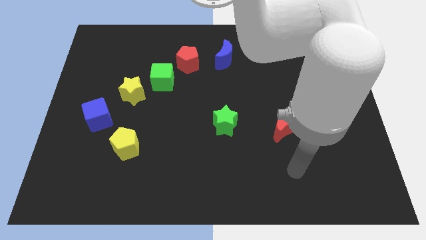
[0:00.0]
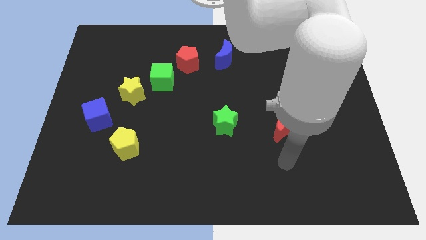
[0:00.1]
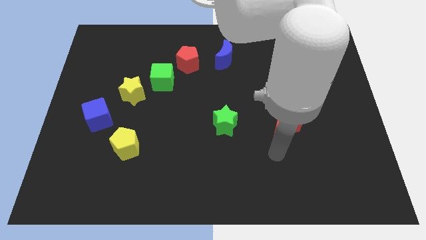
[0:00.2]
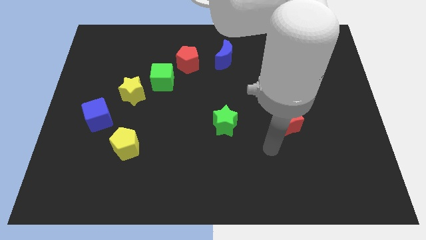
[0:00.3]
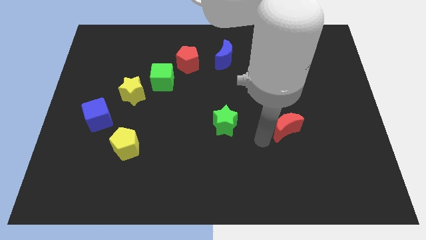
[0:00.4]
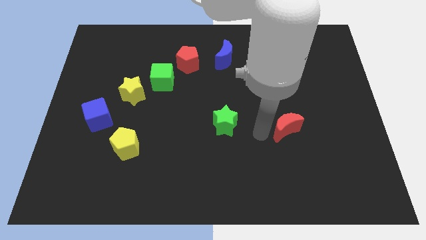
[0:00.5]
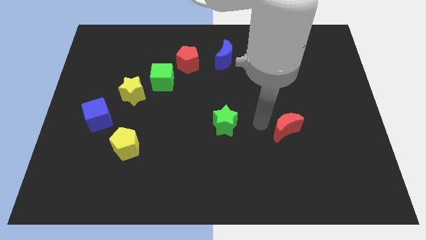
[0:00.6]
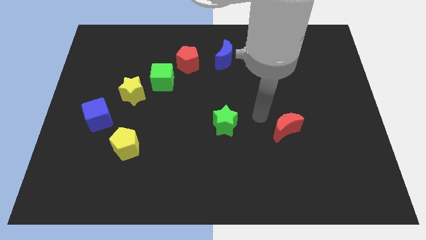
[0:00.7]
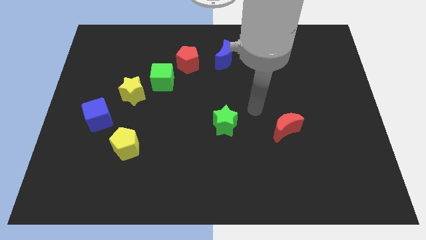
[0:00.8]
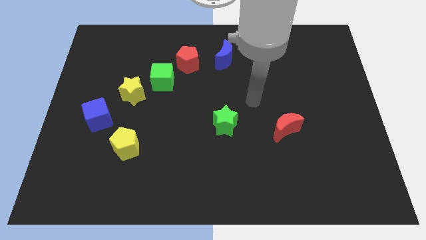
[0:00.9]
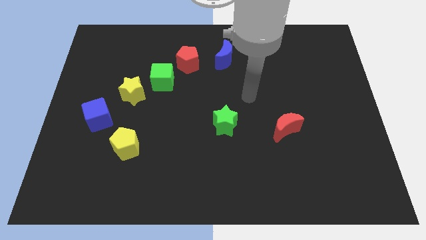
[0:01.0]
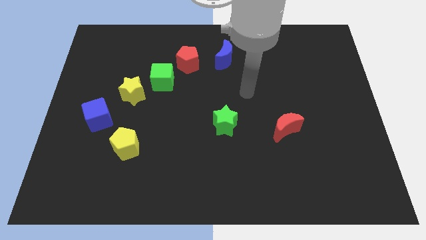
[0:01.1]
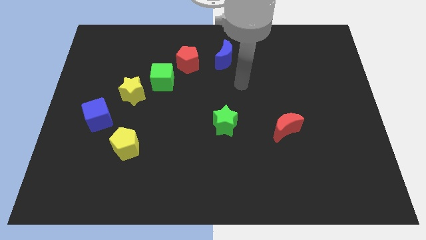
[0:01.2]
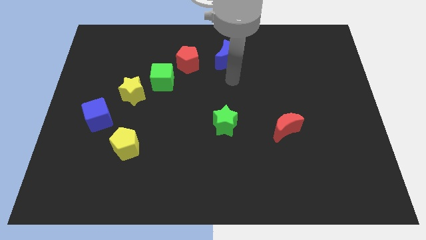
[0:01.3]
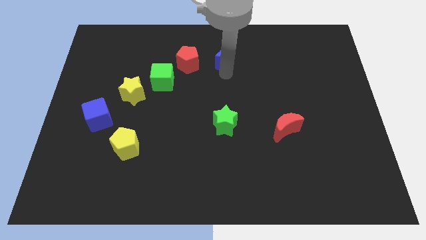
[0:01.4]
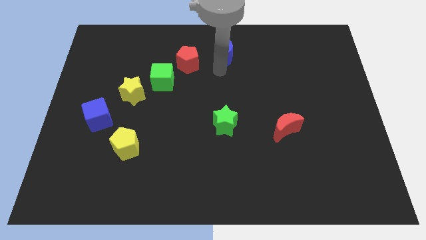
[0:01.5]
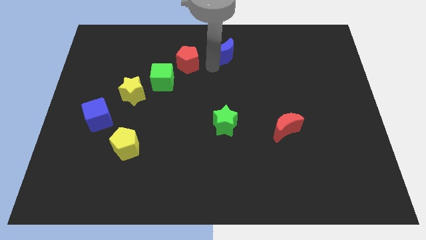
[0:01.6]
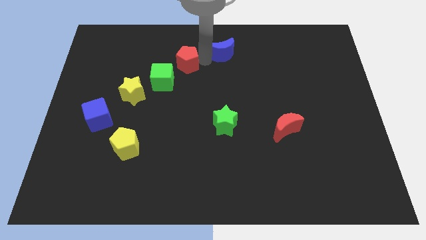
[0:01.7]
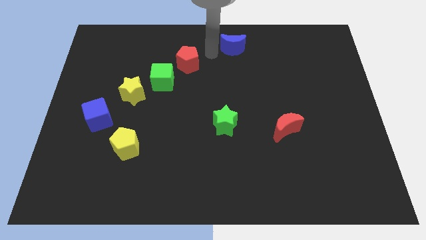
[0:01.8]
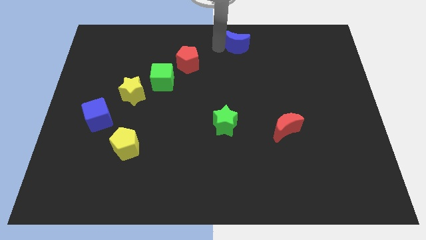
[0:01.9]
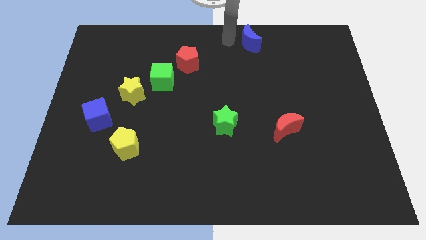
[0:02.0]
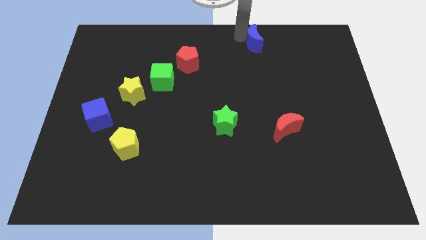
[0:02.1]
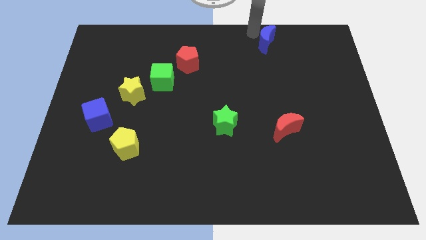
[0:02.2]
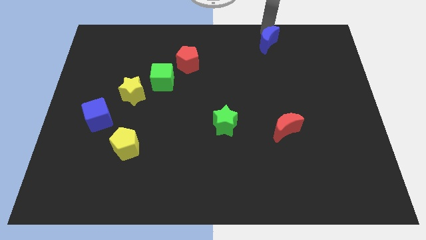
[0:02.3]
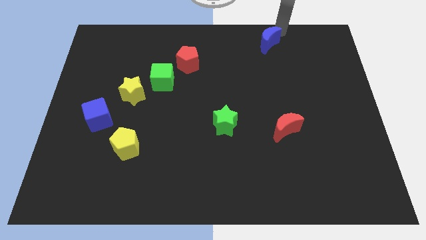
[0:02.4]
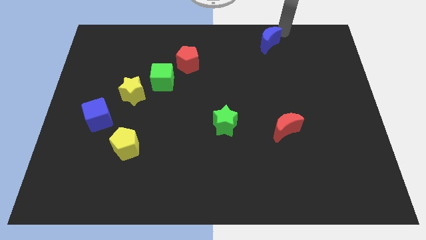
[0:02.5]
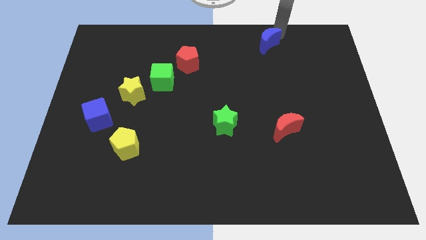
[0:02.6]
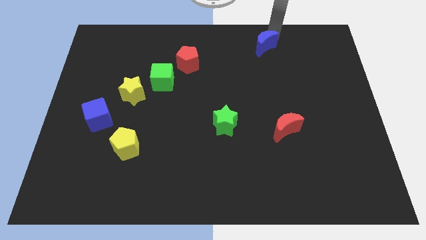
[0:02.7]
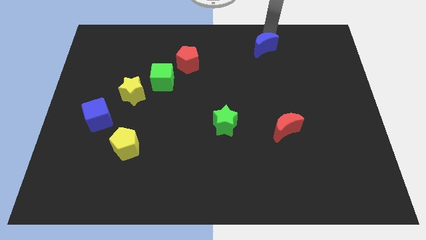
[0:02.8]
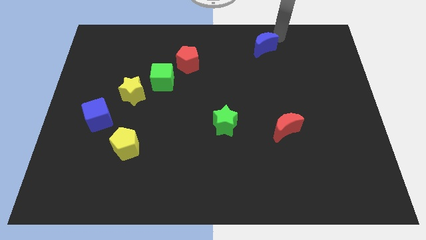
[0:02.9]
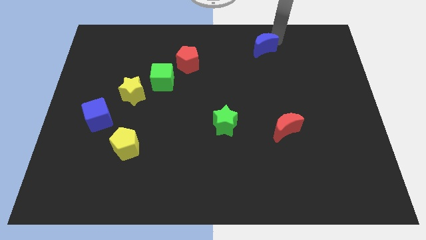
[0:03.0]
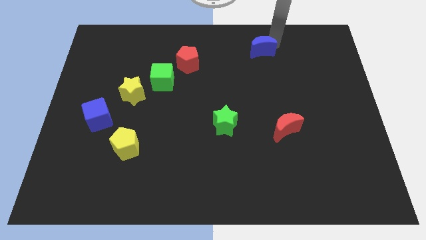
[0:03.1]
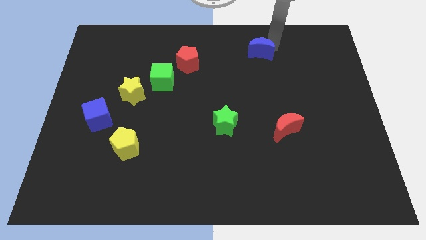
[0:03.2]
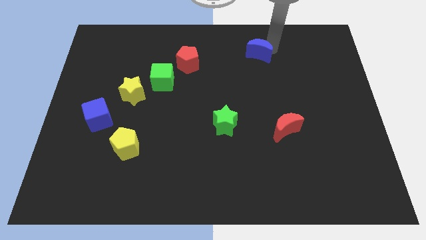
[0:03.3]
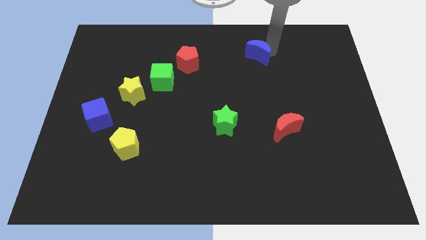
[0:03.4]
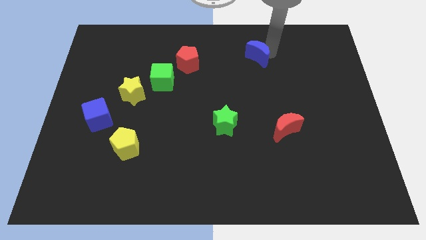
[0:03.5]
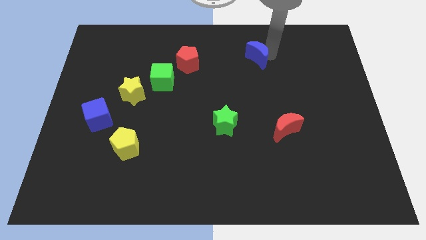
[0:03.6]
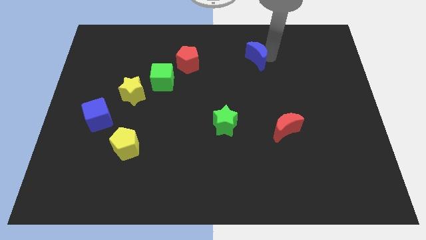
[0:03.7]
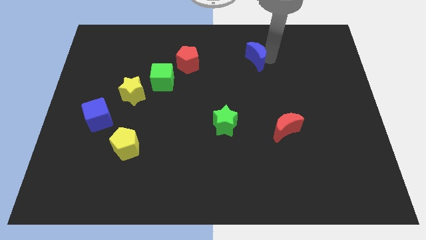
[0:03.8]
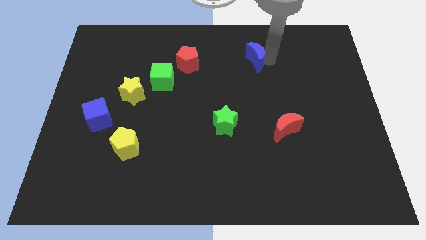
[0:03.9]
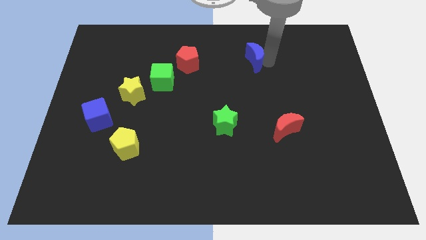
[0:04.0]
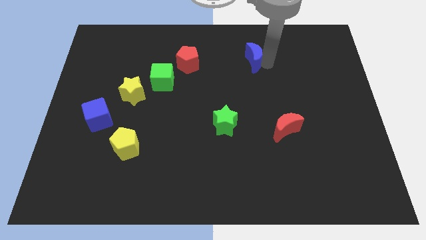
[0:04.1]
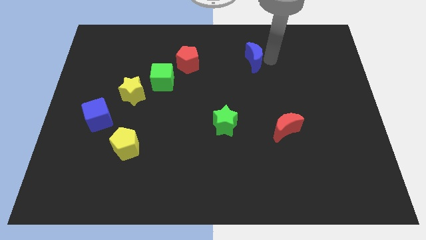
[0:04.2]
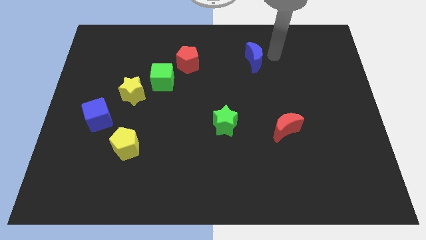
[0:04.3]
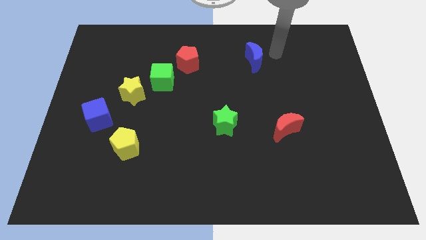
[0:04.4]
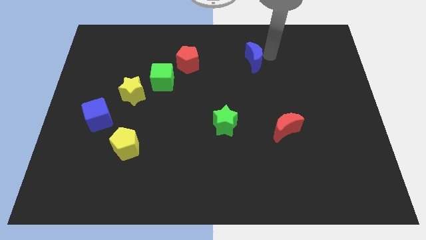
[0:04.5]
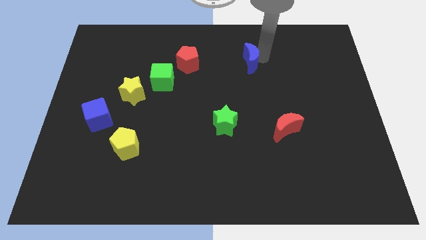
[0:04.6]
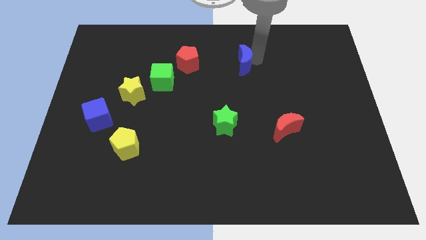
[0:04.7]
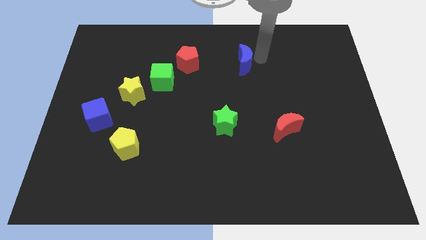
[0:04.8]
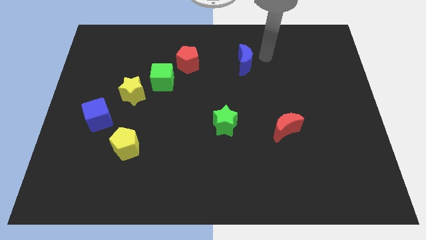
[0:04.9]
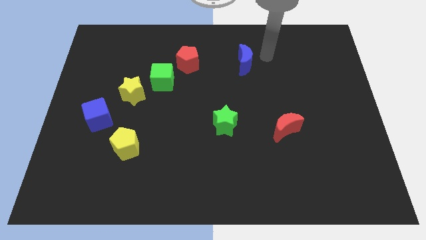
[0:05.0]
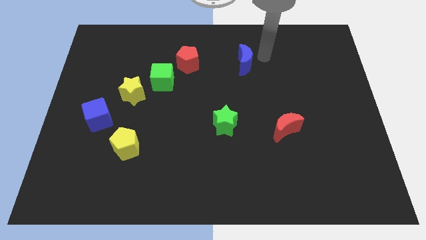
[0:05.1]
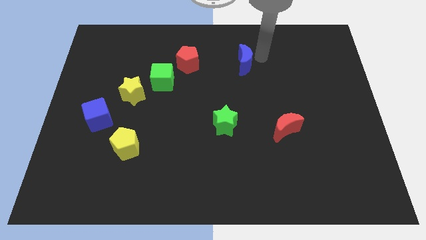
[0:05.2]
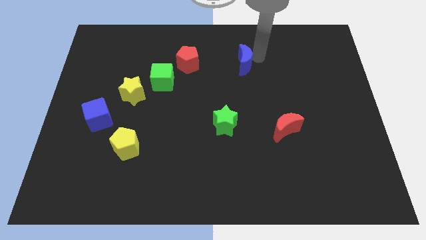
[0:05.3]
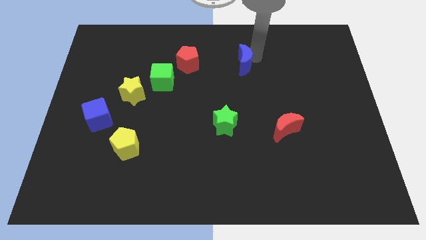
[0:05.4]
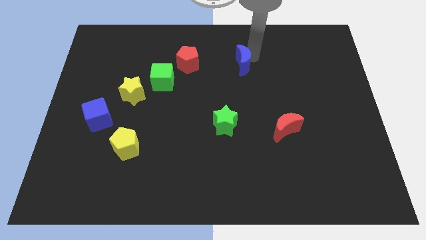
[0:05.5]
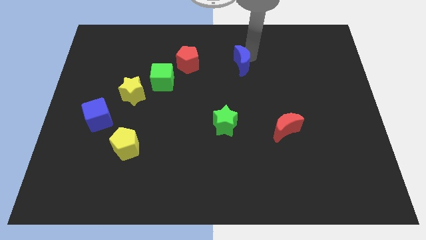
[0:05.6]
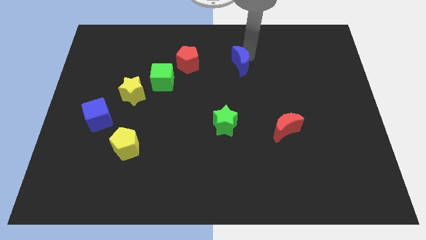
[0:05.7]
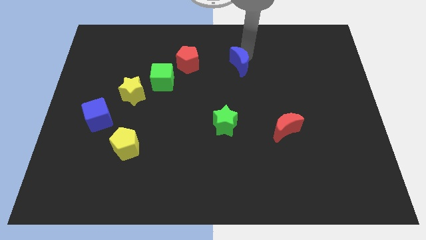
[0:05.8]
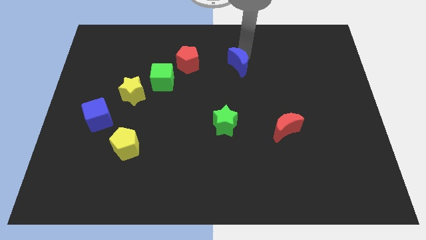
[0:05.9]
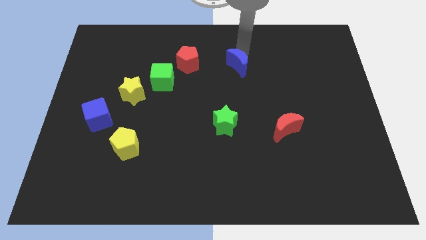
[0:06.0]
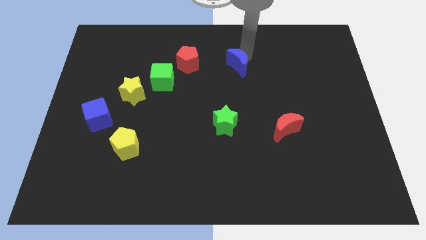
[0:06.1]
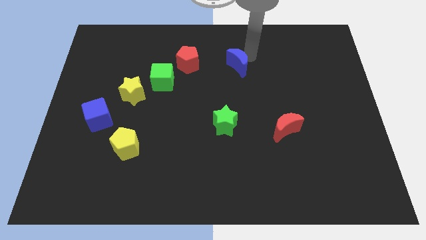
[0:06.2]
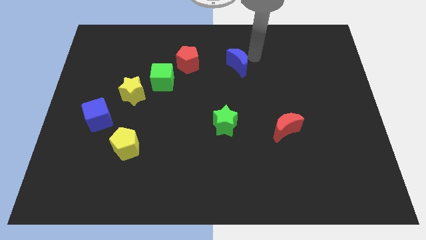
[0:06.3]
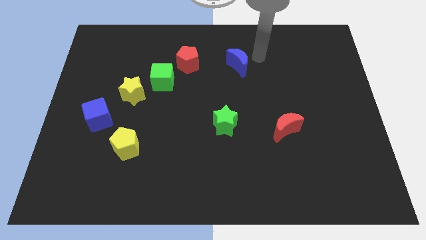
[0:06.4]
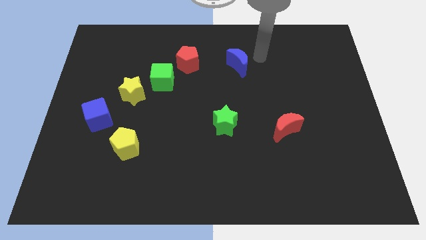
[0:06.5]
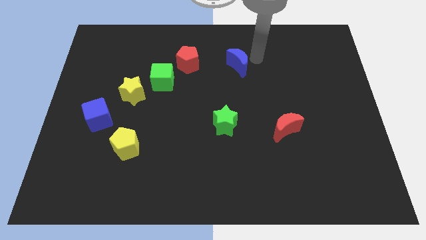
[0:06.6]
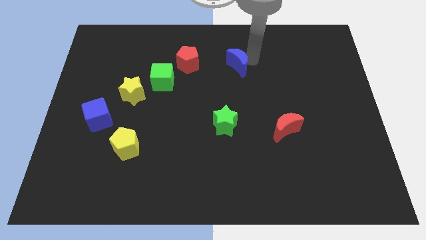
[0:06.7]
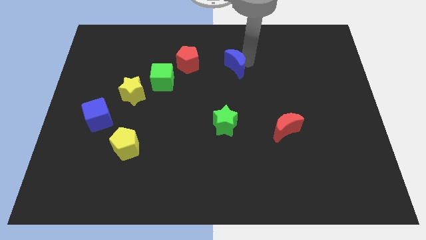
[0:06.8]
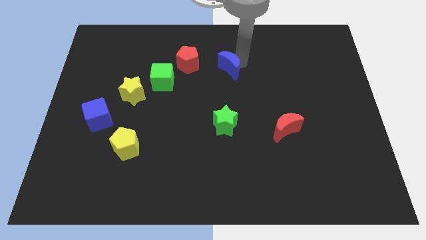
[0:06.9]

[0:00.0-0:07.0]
move the blue moon to the middle of the board

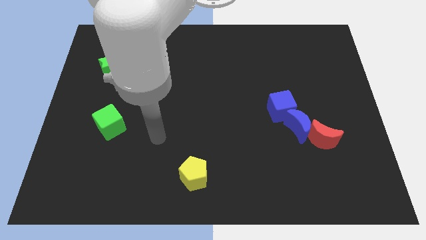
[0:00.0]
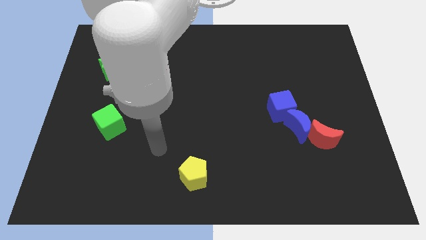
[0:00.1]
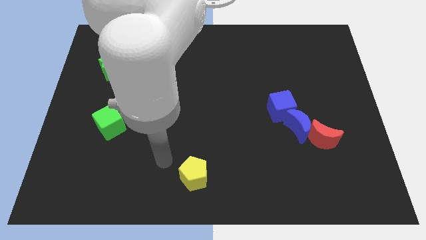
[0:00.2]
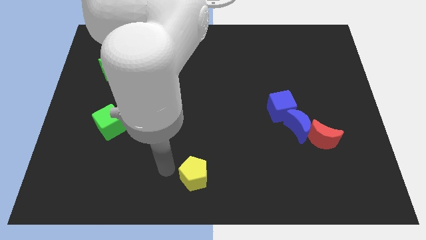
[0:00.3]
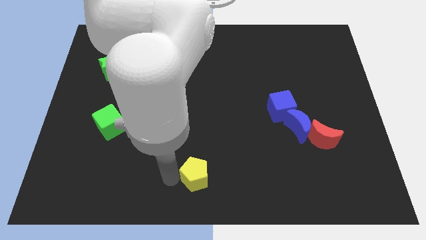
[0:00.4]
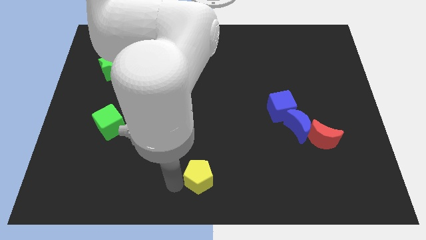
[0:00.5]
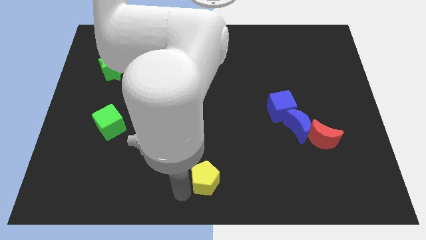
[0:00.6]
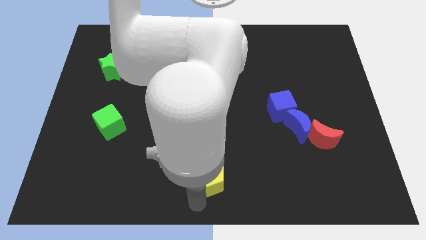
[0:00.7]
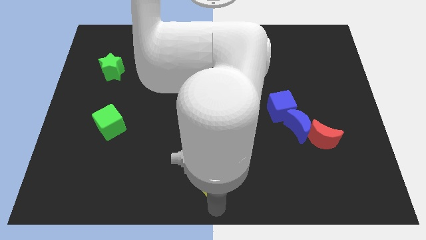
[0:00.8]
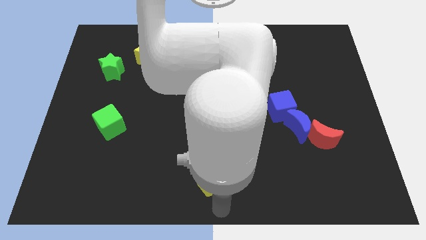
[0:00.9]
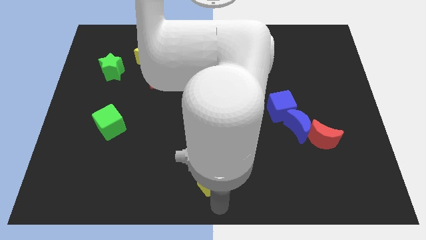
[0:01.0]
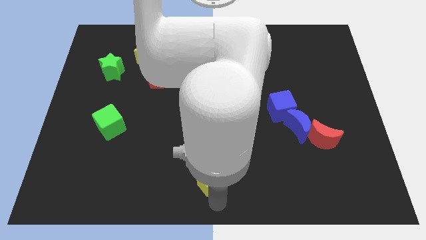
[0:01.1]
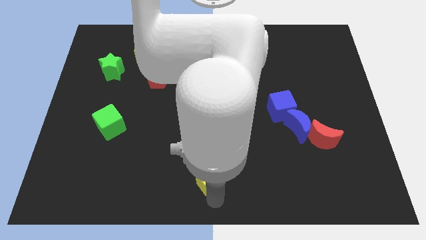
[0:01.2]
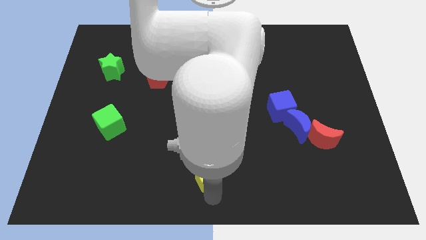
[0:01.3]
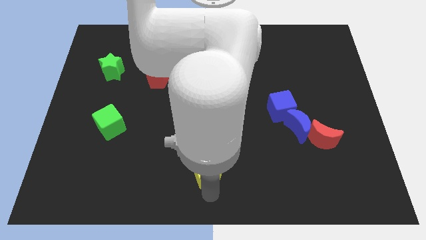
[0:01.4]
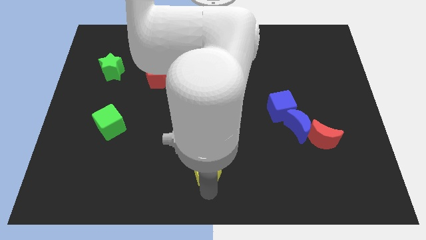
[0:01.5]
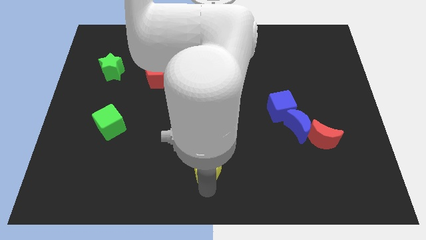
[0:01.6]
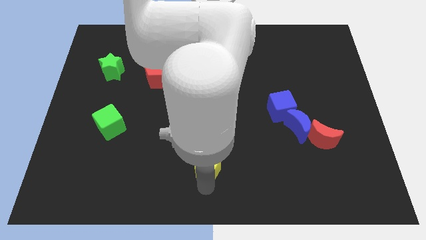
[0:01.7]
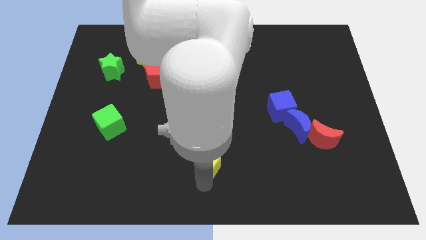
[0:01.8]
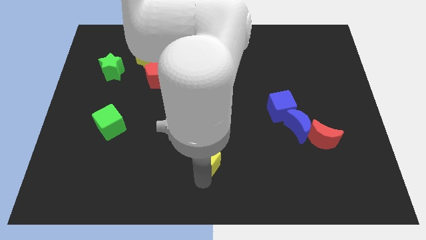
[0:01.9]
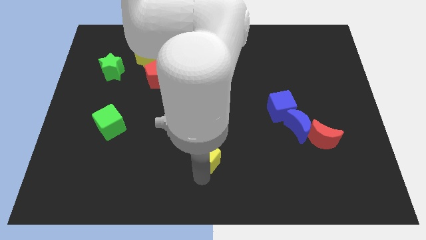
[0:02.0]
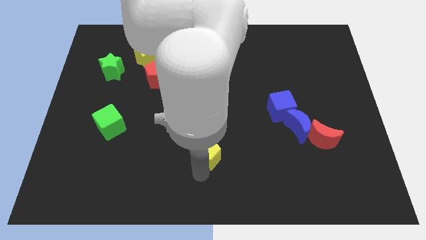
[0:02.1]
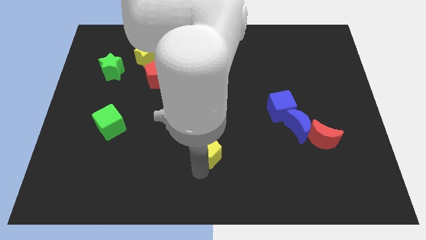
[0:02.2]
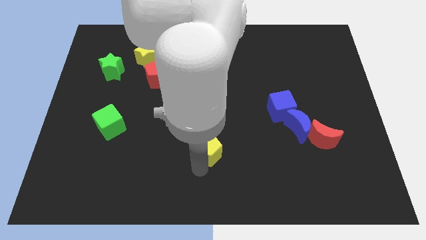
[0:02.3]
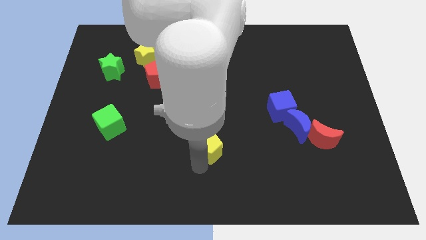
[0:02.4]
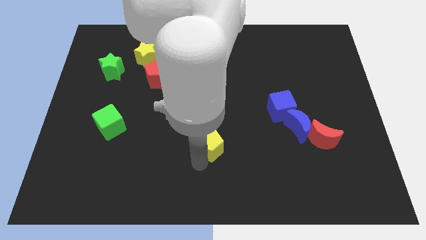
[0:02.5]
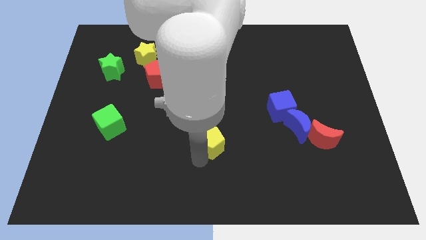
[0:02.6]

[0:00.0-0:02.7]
put the yellow pentagon to the middle of the board
